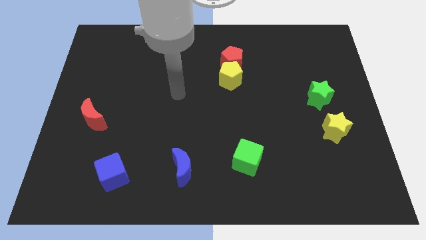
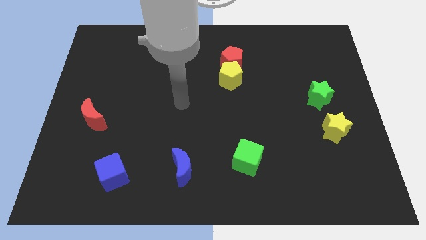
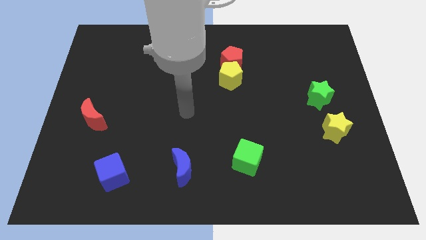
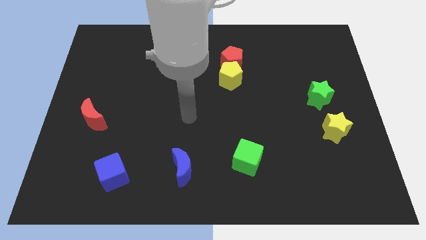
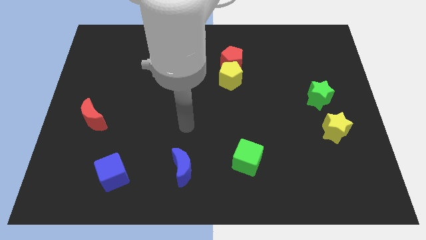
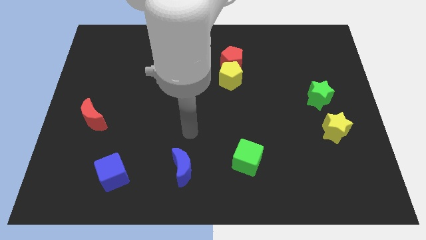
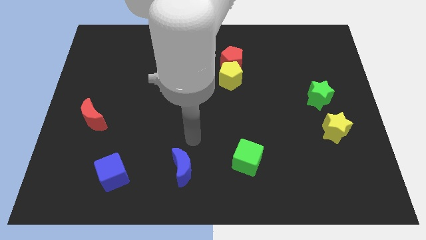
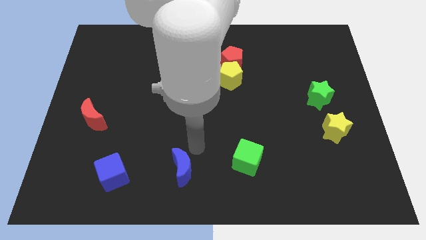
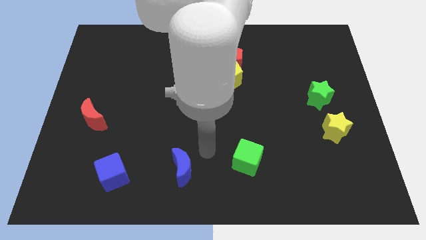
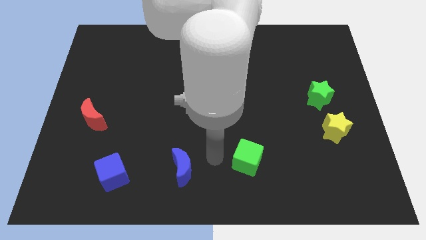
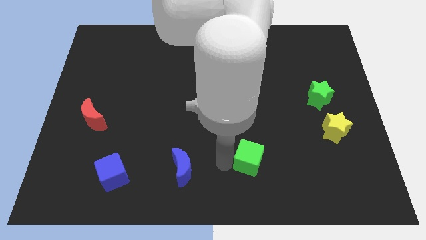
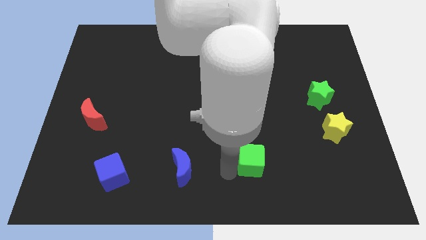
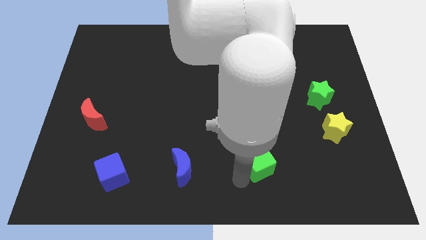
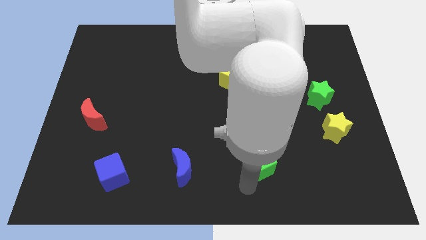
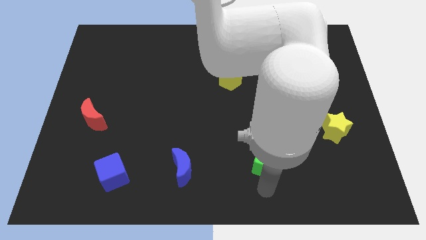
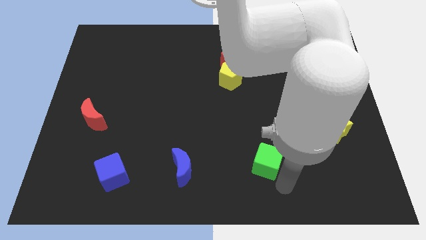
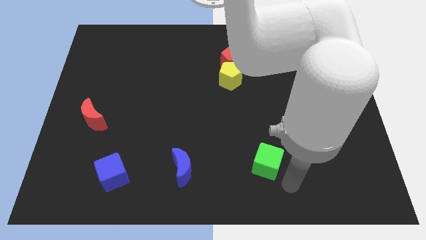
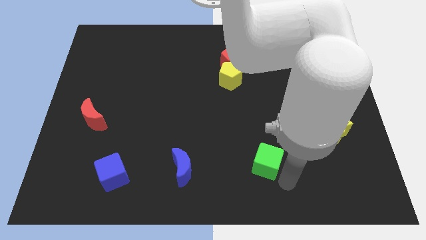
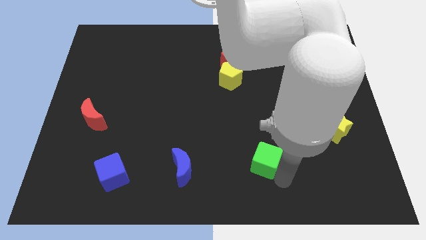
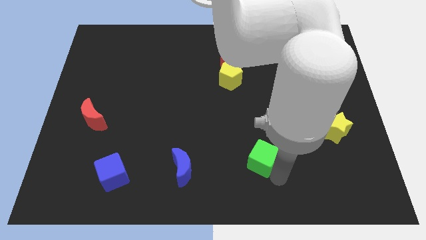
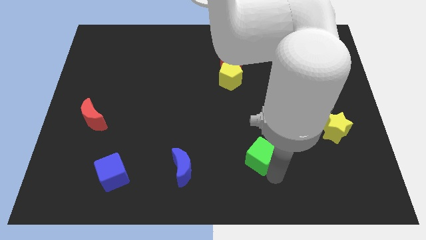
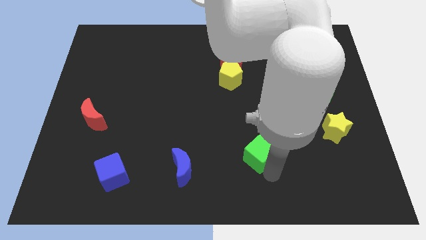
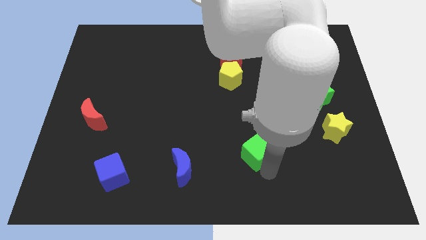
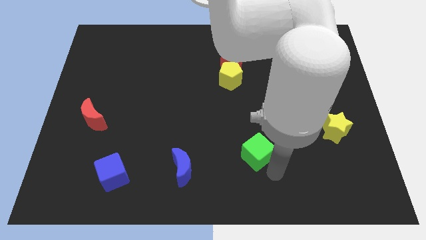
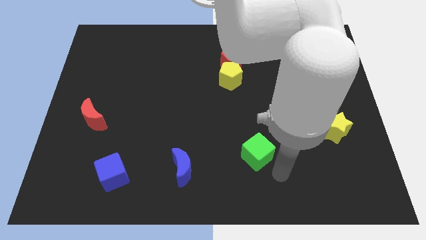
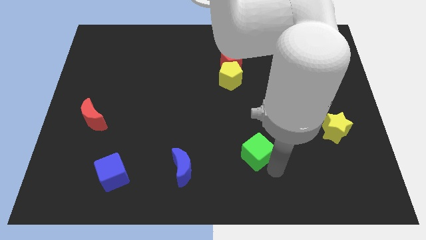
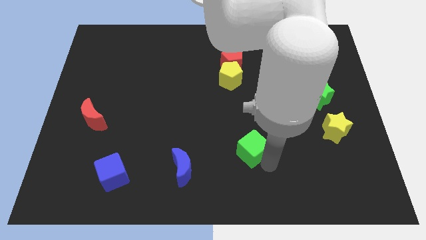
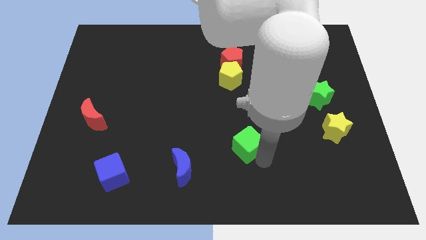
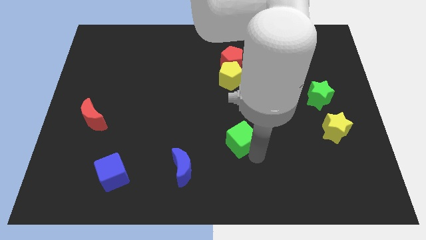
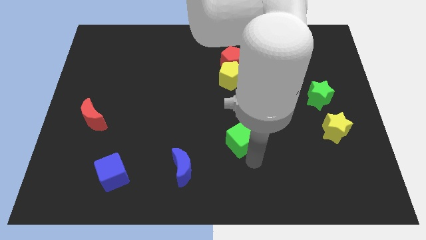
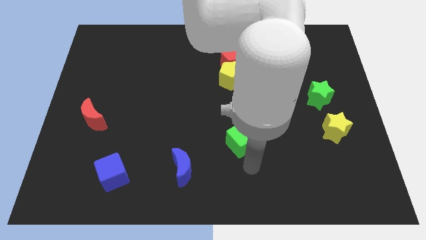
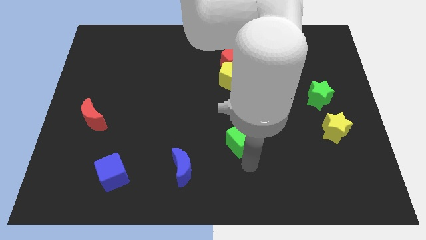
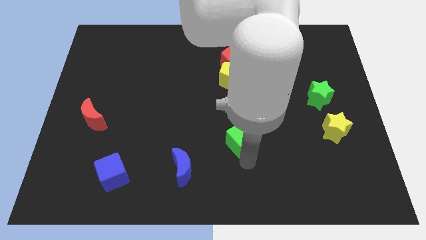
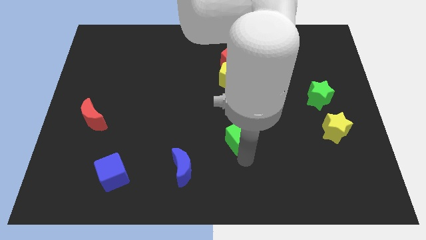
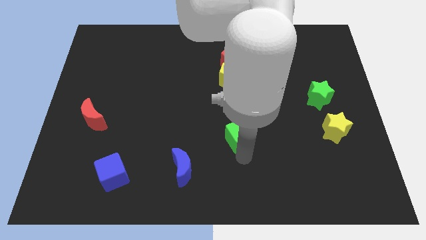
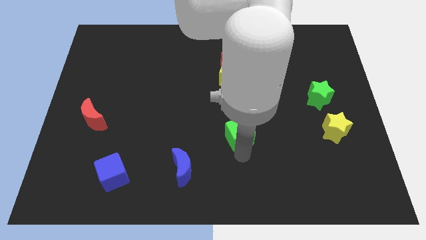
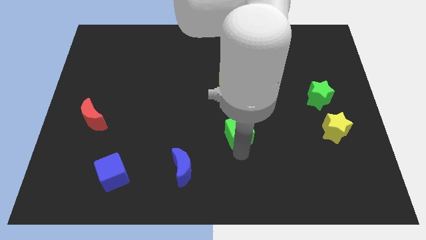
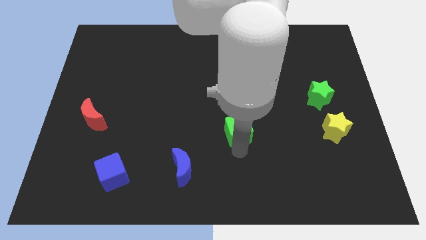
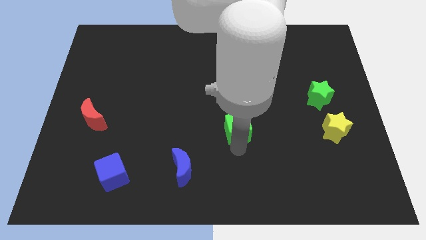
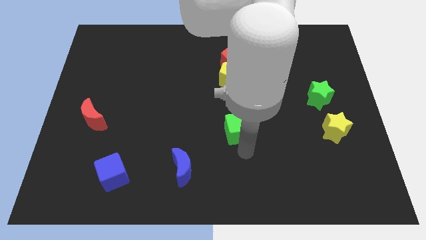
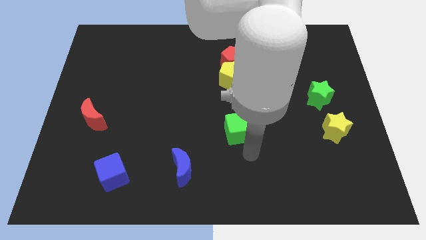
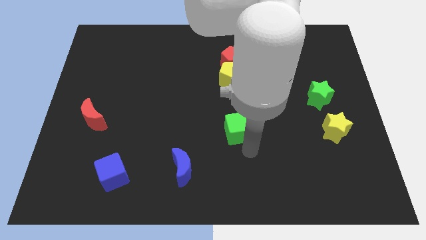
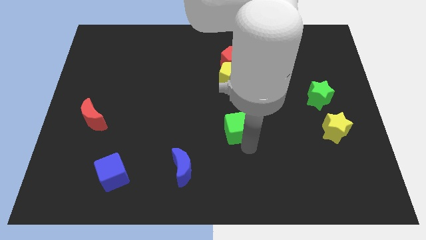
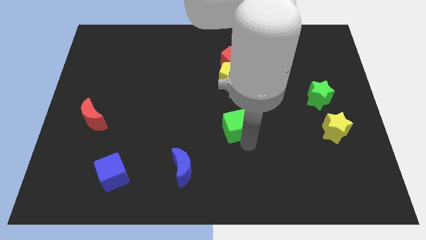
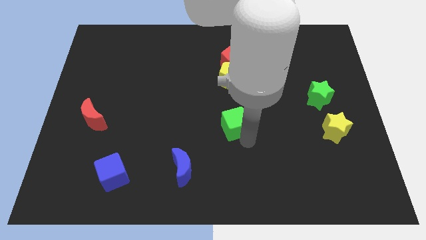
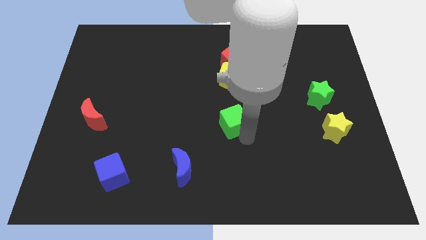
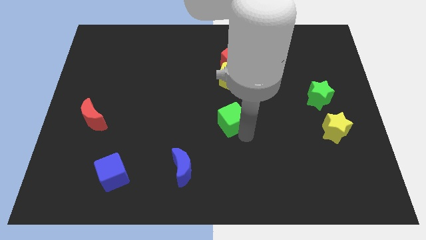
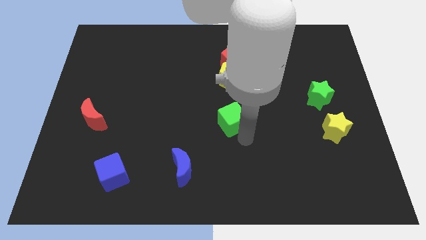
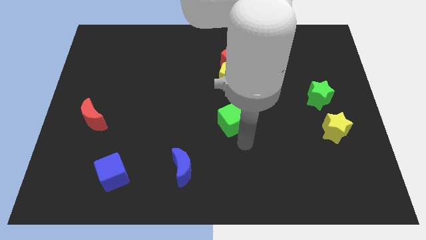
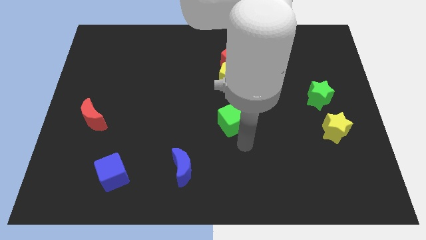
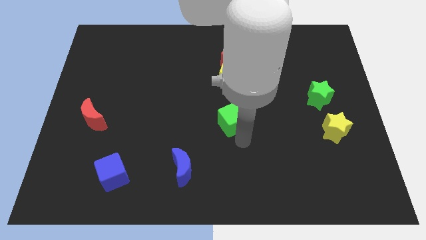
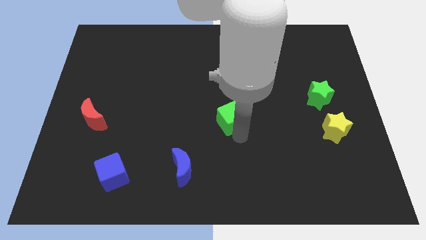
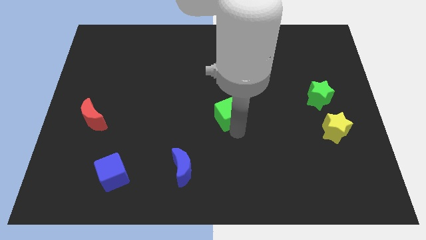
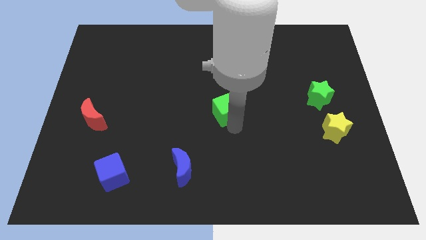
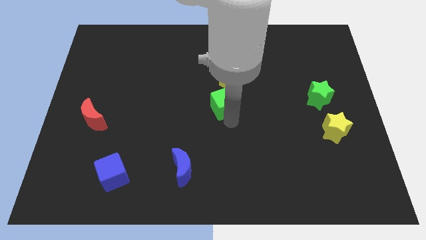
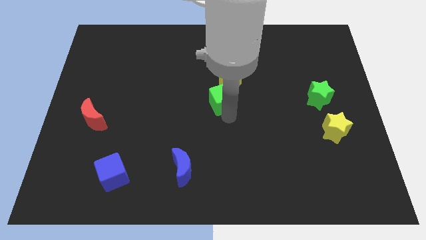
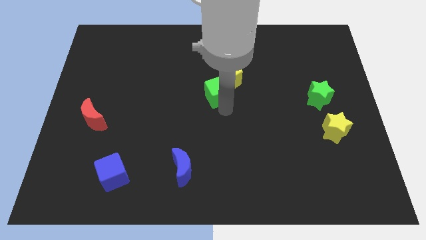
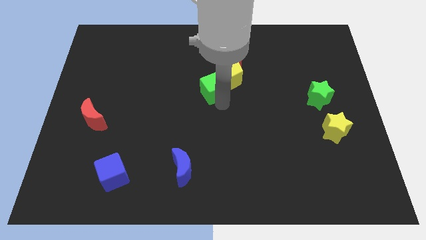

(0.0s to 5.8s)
slide the green cube to the bottom left side of the red pentagon

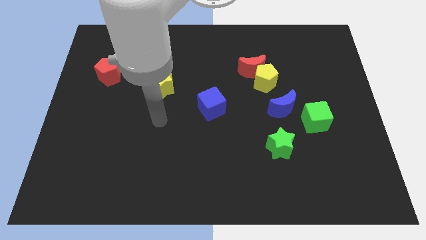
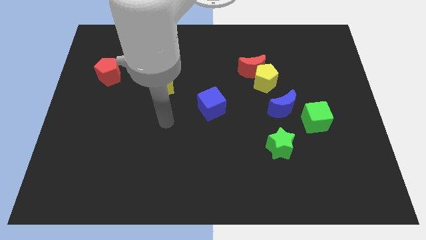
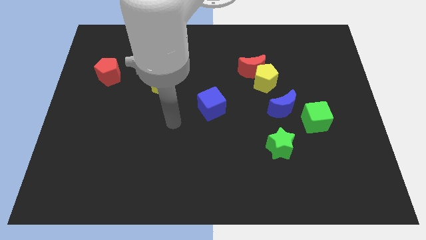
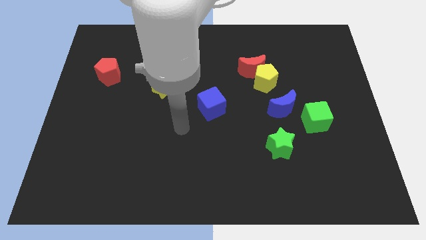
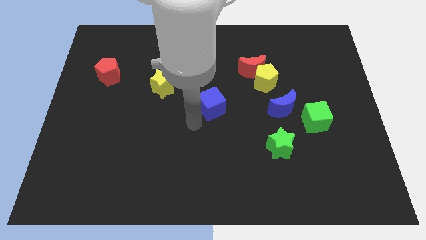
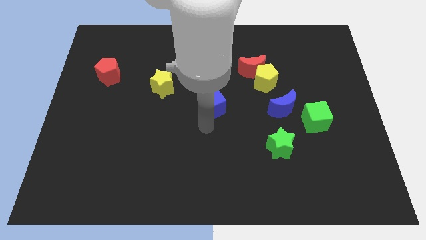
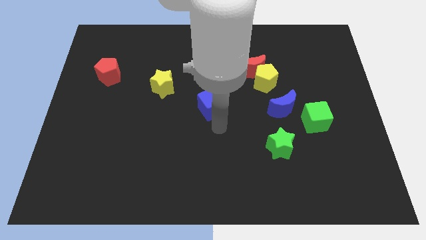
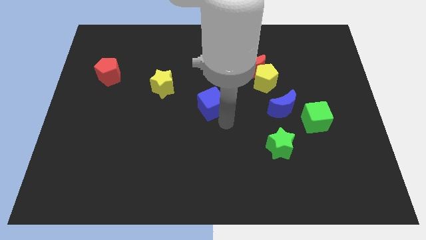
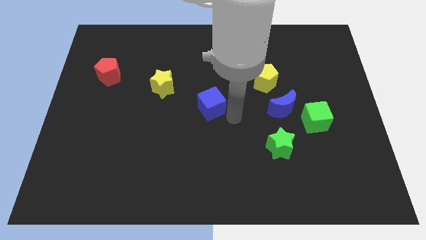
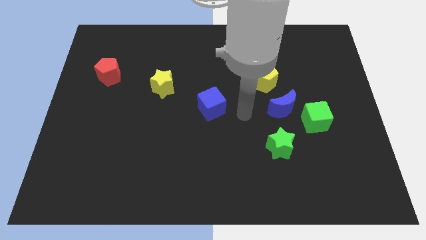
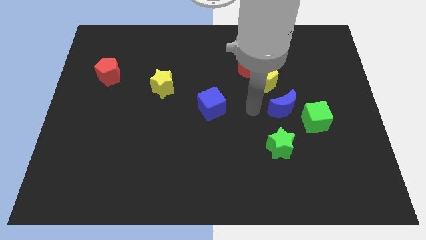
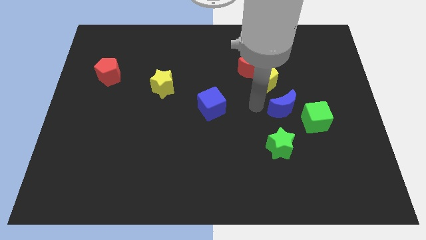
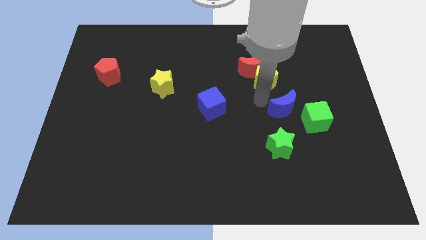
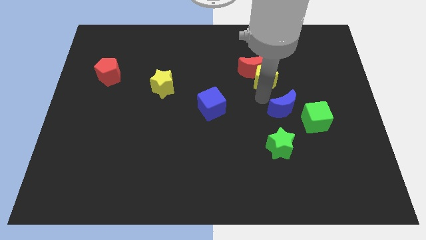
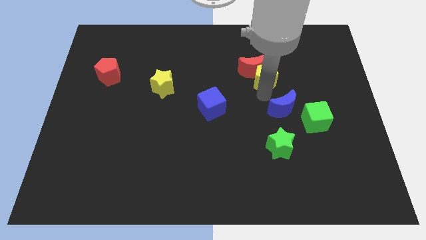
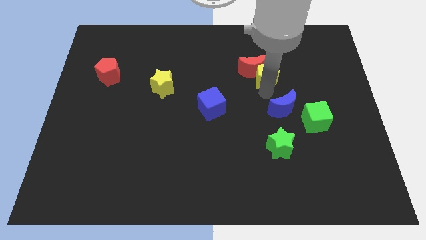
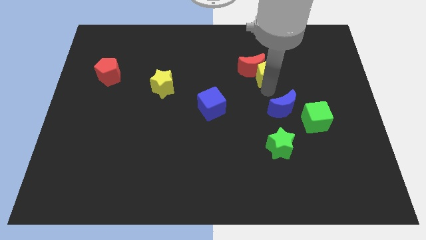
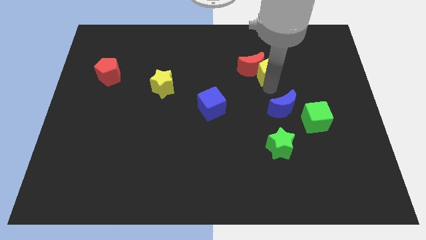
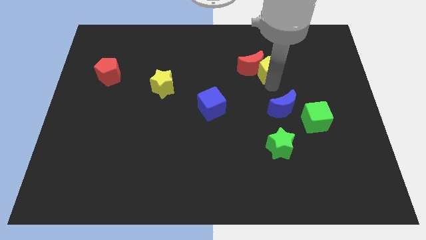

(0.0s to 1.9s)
put the yellow pentagon to the top right side of the red moon
